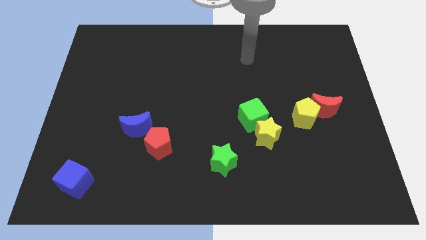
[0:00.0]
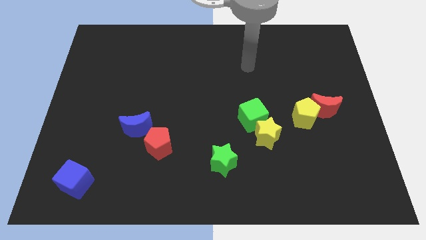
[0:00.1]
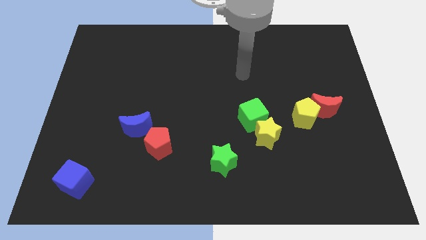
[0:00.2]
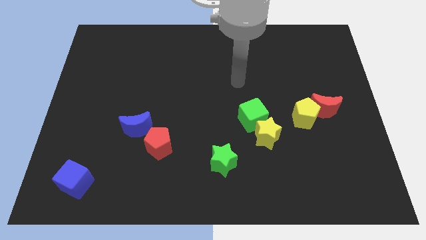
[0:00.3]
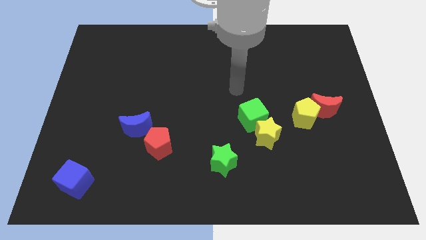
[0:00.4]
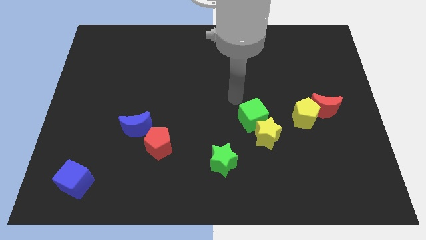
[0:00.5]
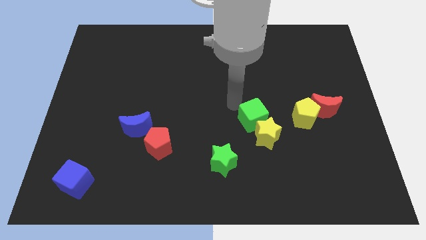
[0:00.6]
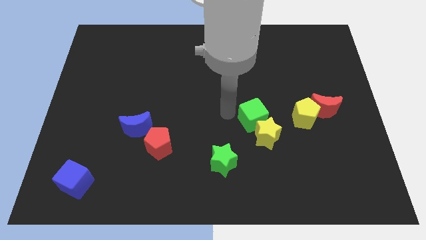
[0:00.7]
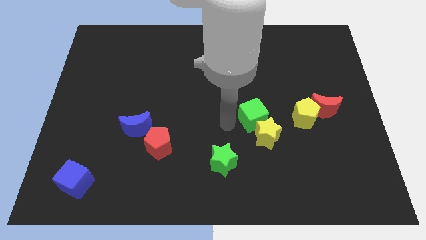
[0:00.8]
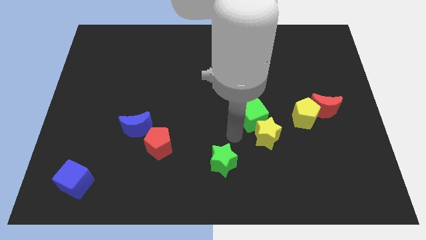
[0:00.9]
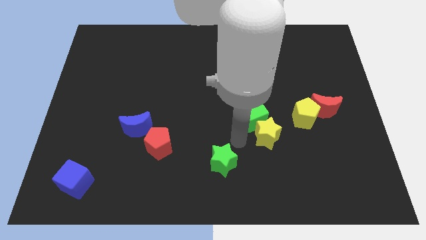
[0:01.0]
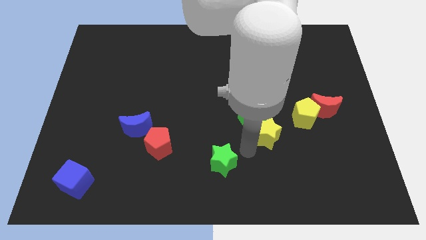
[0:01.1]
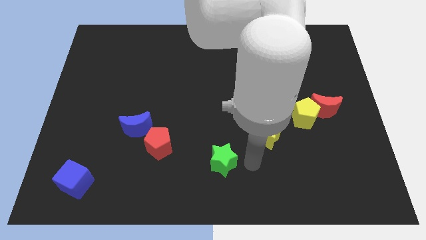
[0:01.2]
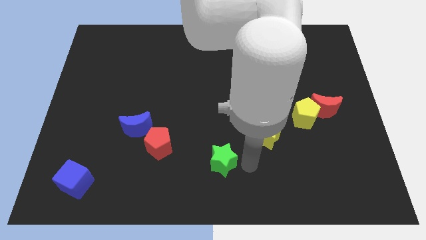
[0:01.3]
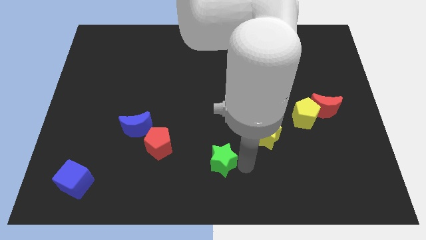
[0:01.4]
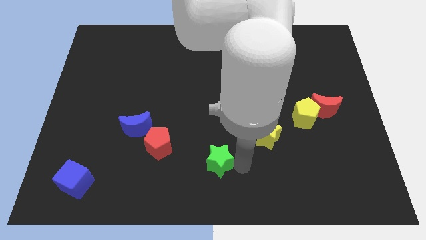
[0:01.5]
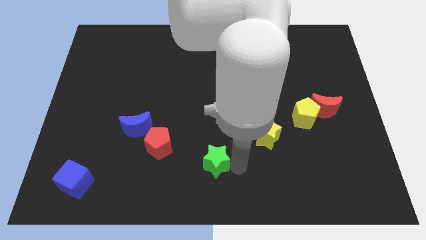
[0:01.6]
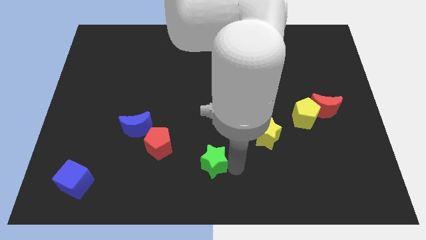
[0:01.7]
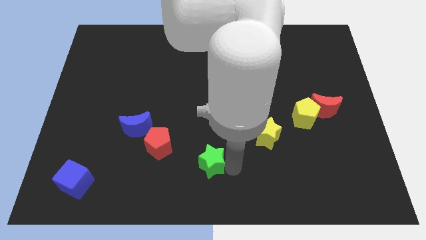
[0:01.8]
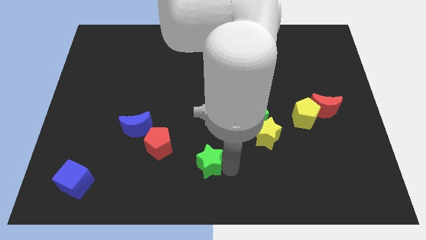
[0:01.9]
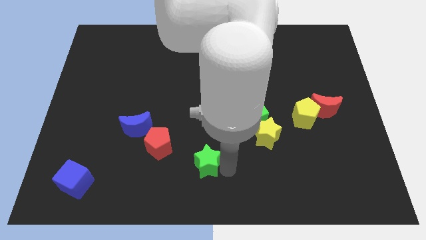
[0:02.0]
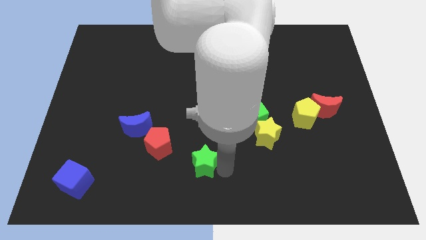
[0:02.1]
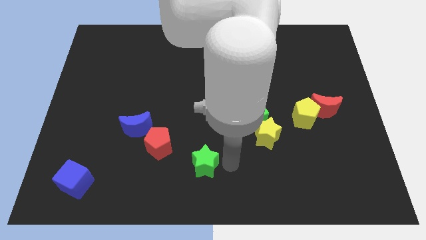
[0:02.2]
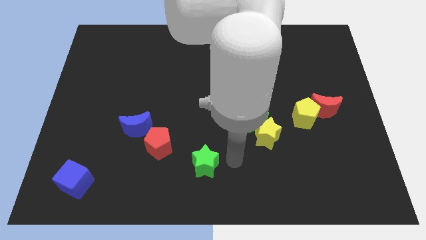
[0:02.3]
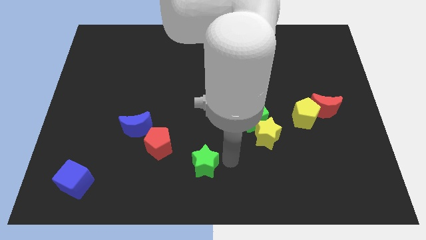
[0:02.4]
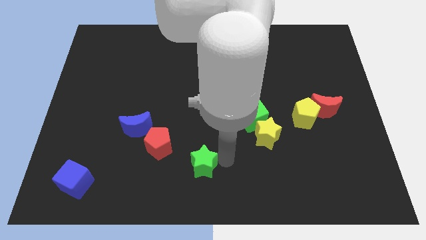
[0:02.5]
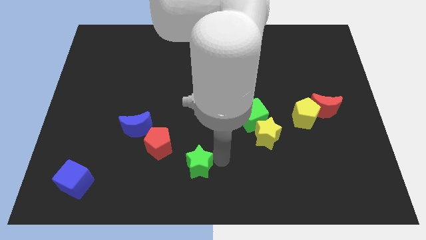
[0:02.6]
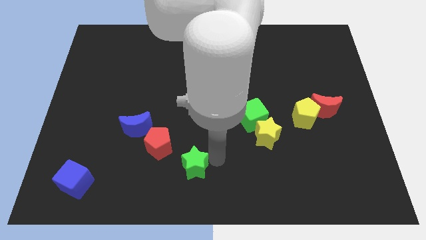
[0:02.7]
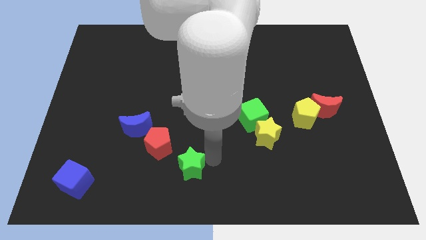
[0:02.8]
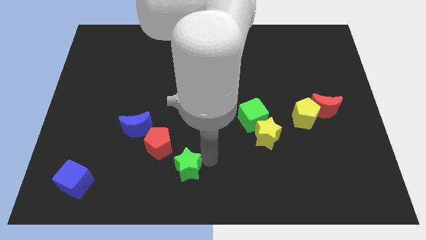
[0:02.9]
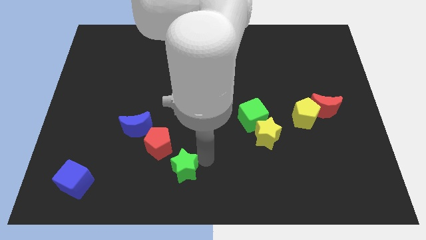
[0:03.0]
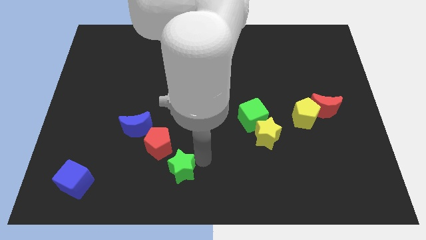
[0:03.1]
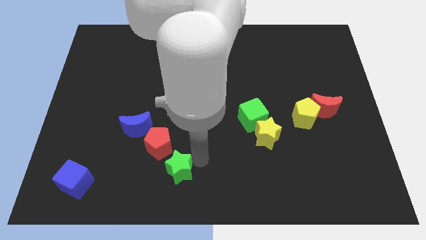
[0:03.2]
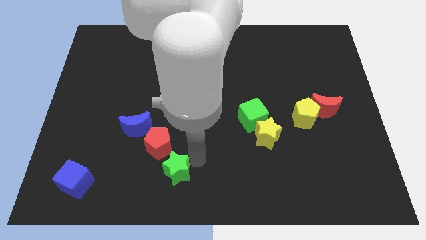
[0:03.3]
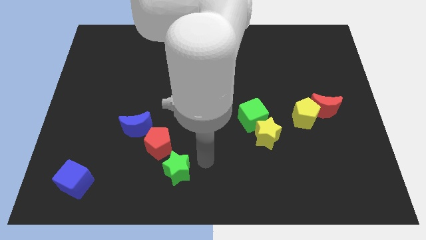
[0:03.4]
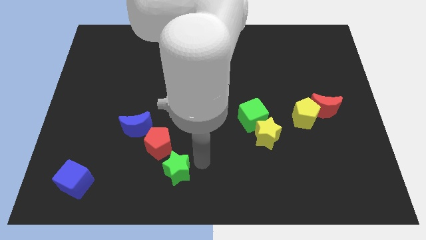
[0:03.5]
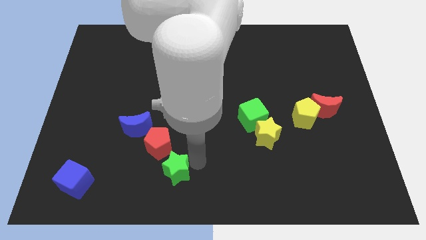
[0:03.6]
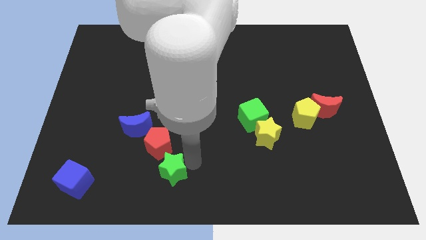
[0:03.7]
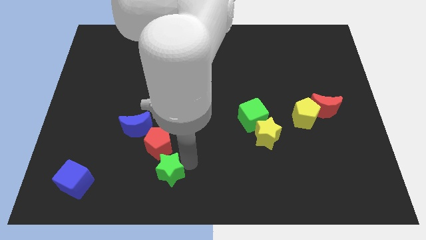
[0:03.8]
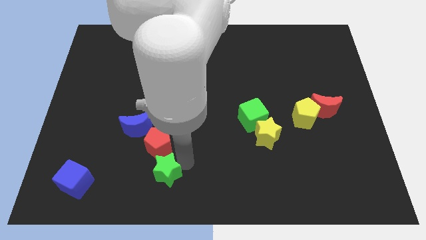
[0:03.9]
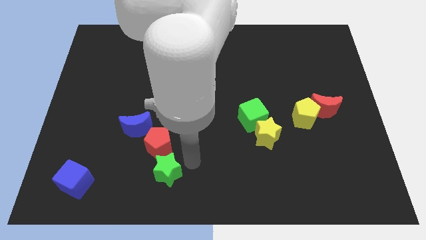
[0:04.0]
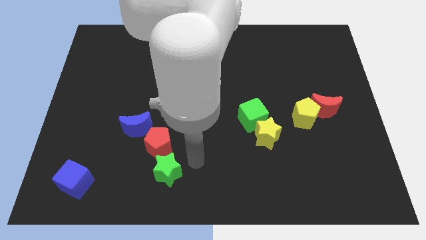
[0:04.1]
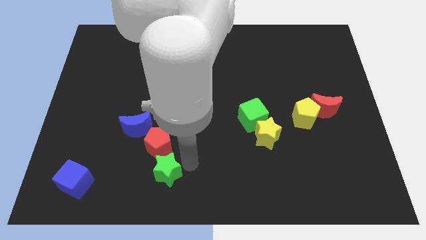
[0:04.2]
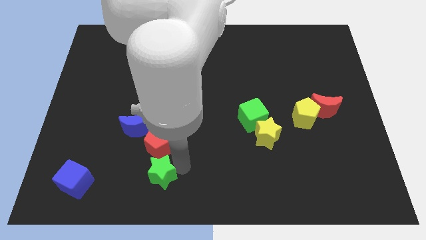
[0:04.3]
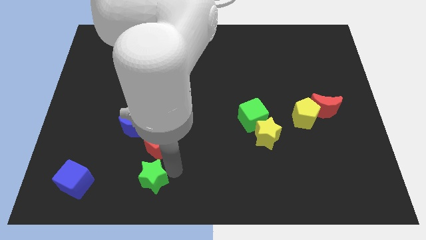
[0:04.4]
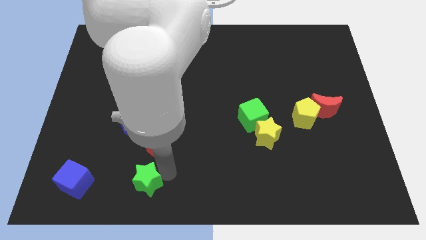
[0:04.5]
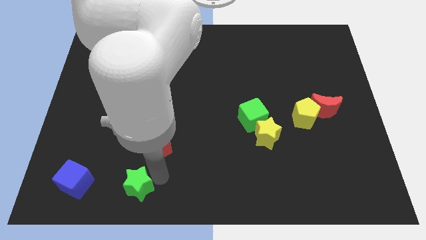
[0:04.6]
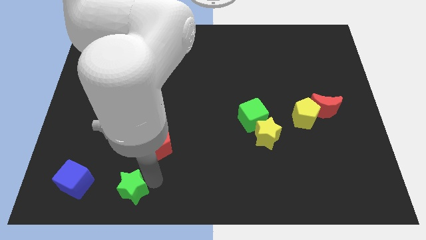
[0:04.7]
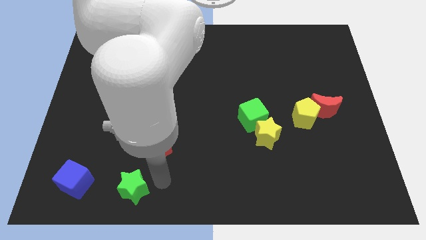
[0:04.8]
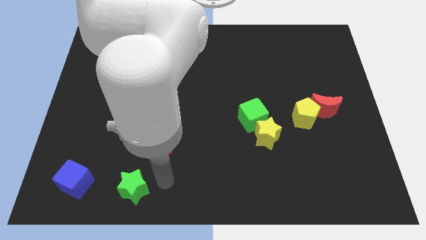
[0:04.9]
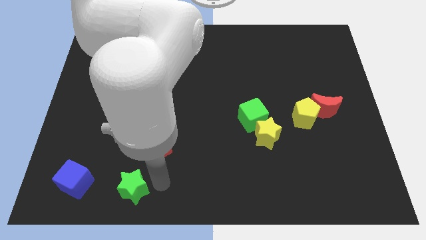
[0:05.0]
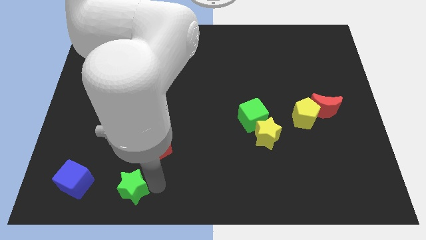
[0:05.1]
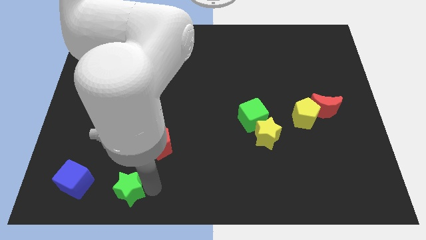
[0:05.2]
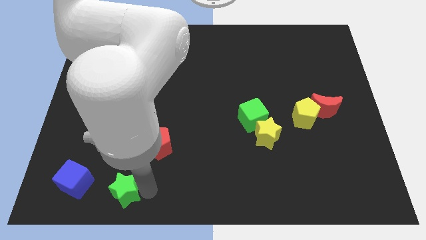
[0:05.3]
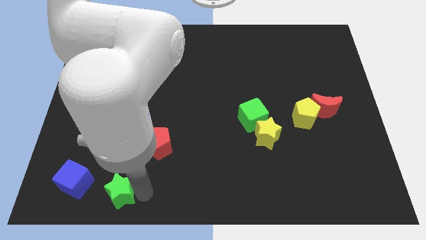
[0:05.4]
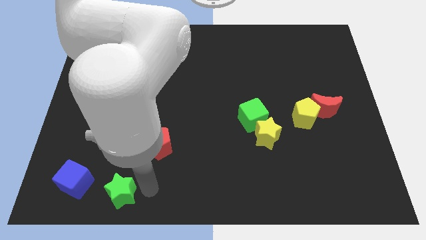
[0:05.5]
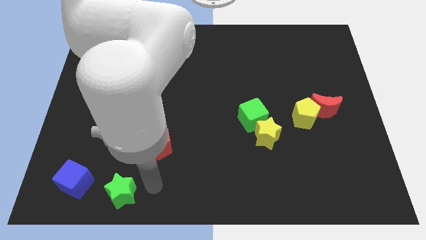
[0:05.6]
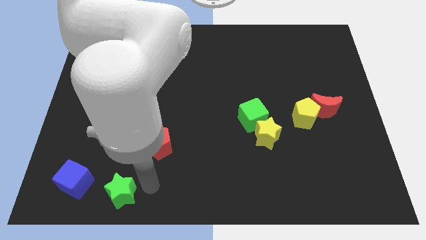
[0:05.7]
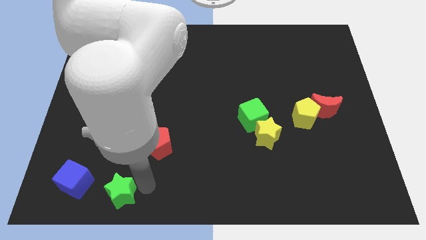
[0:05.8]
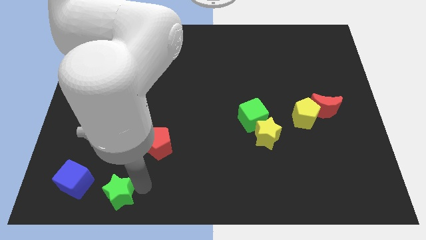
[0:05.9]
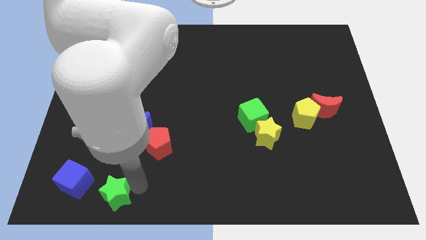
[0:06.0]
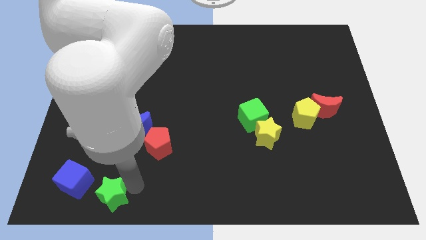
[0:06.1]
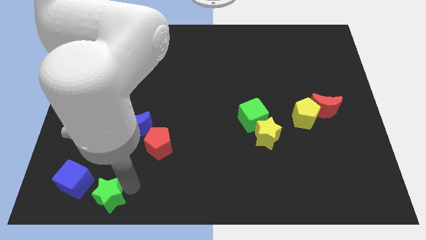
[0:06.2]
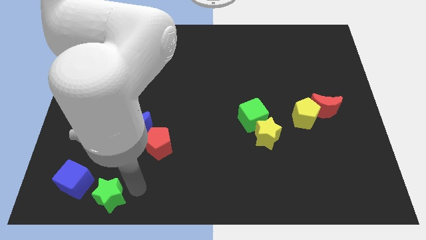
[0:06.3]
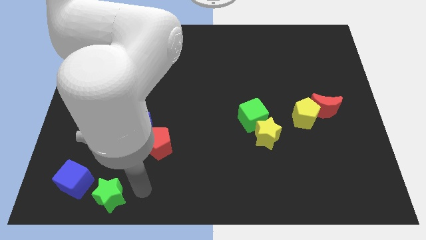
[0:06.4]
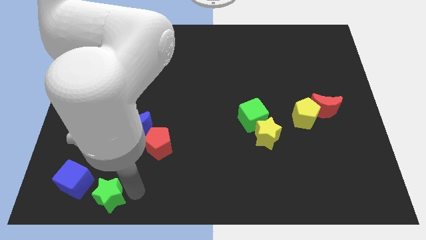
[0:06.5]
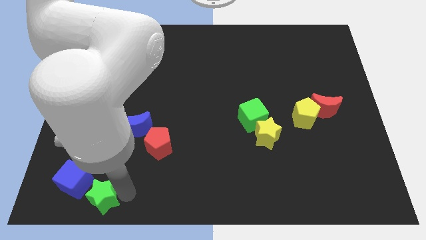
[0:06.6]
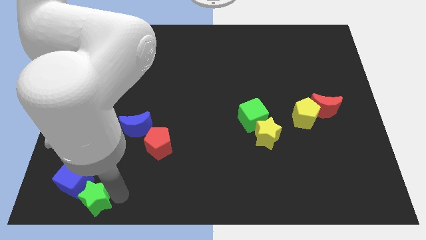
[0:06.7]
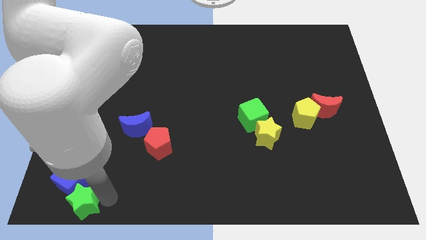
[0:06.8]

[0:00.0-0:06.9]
put the green star to the bottom left

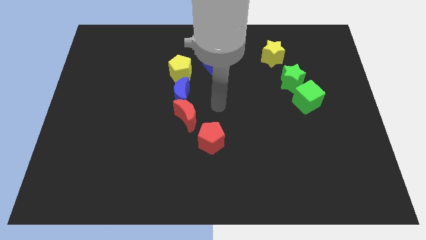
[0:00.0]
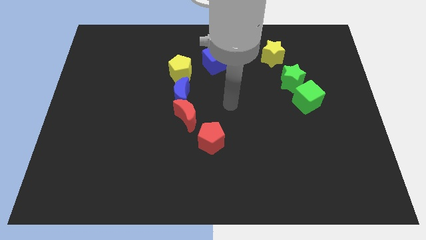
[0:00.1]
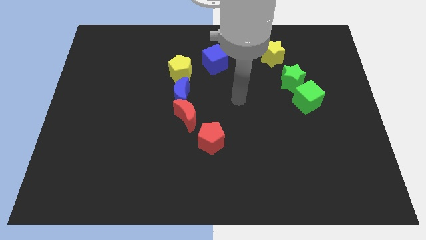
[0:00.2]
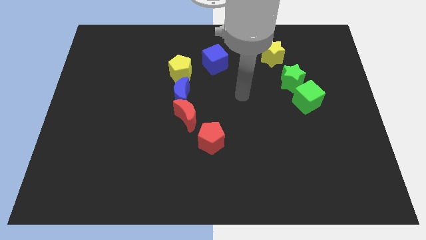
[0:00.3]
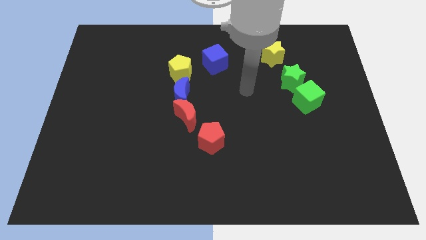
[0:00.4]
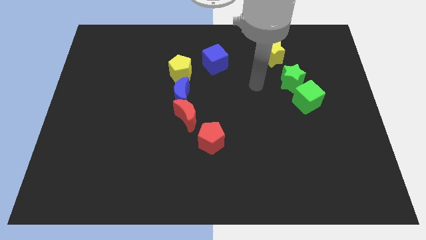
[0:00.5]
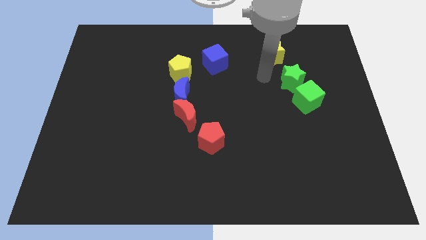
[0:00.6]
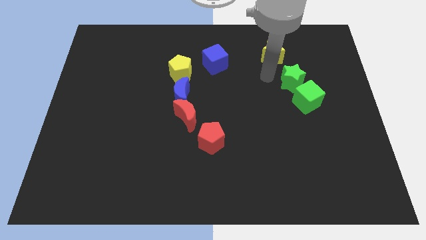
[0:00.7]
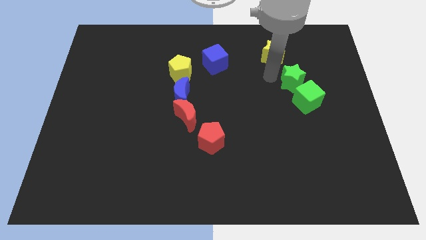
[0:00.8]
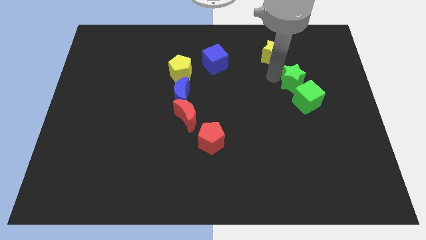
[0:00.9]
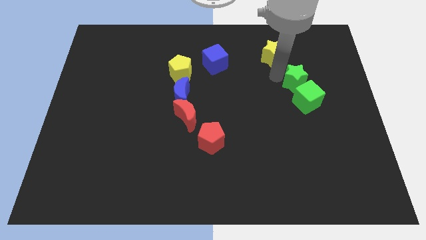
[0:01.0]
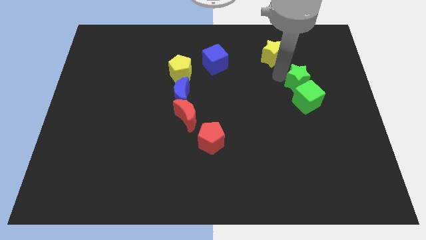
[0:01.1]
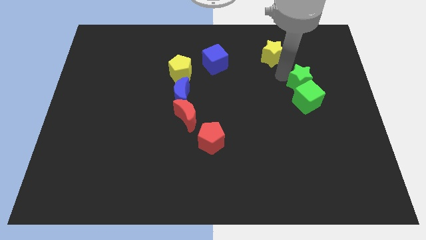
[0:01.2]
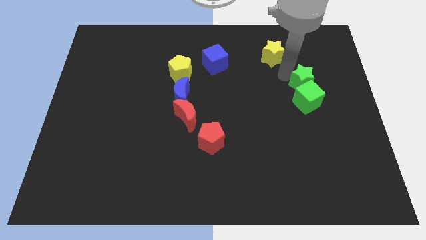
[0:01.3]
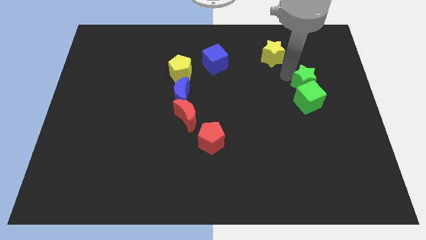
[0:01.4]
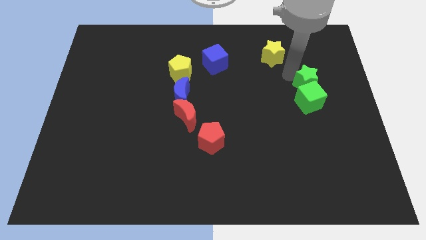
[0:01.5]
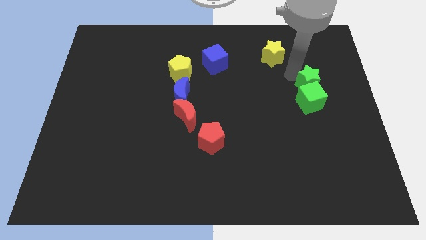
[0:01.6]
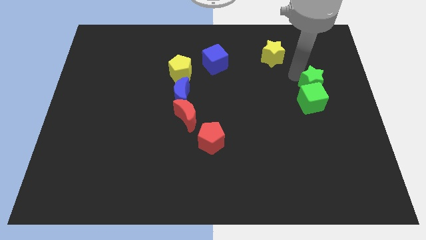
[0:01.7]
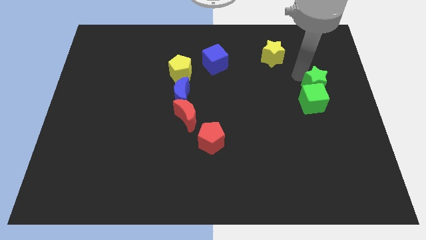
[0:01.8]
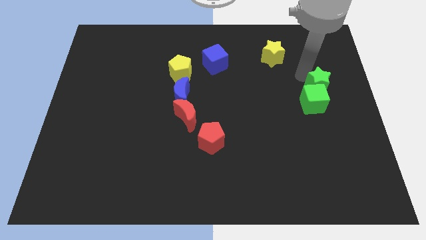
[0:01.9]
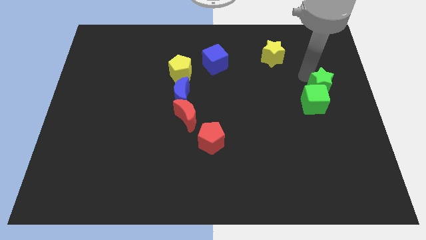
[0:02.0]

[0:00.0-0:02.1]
slide the green star to the right side of the board
